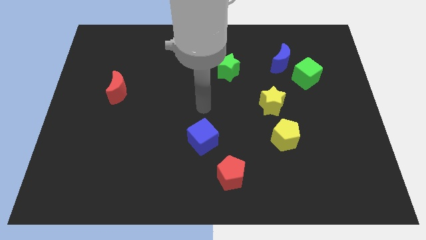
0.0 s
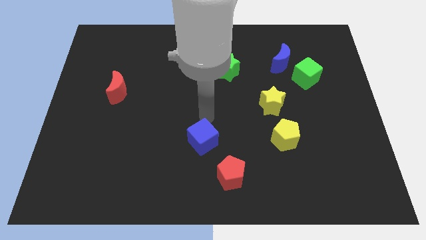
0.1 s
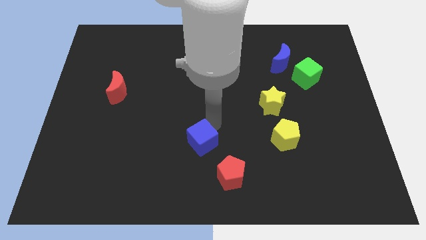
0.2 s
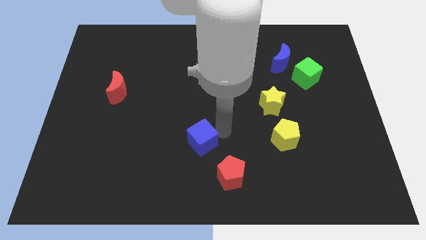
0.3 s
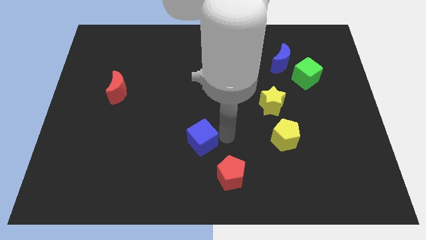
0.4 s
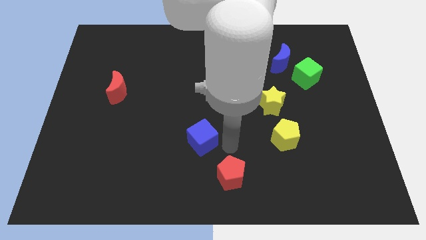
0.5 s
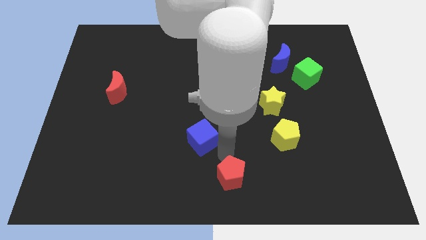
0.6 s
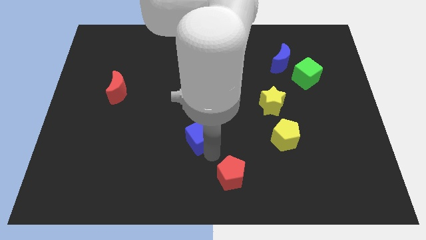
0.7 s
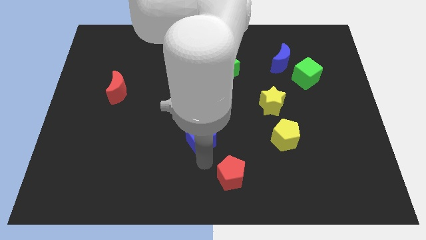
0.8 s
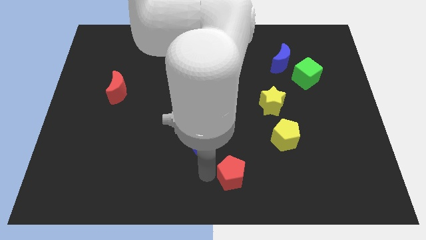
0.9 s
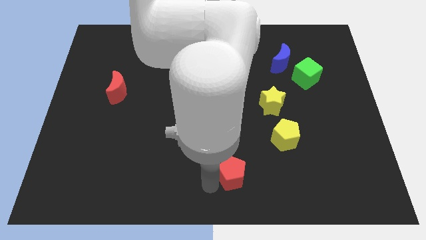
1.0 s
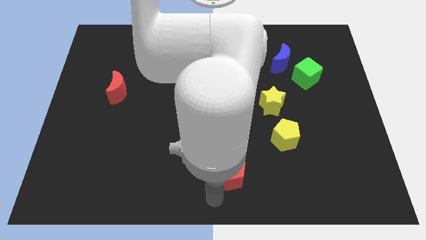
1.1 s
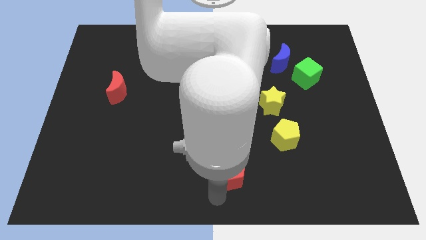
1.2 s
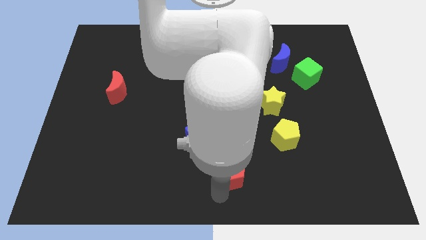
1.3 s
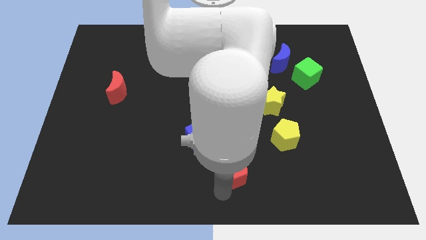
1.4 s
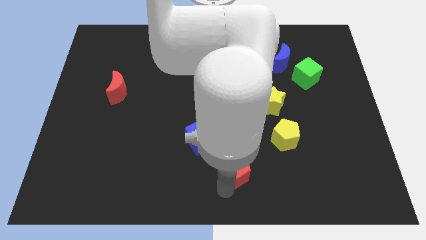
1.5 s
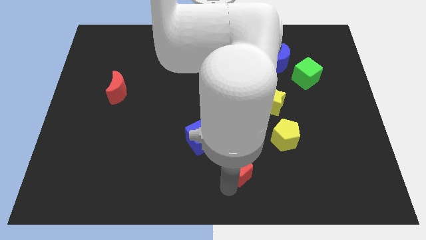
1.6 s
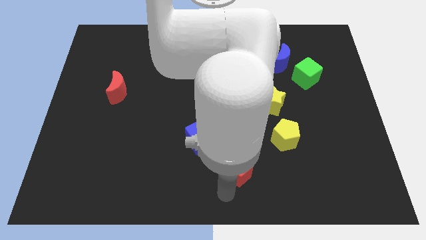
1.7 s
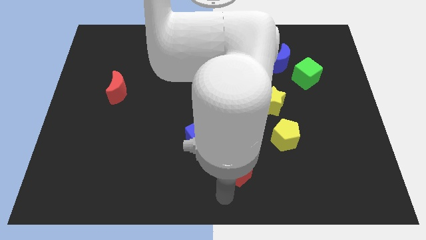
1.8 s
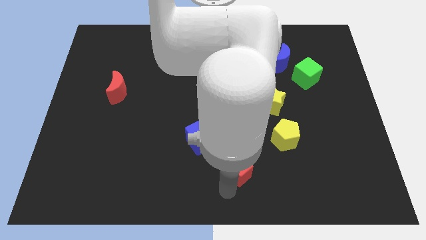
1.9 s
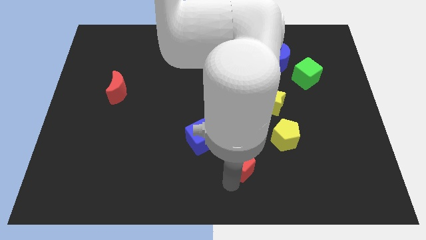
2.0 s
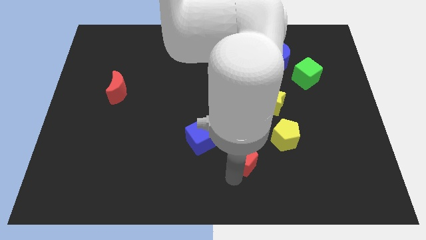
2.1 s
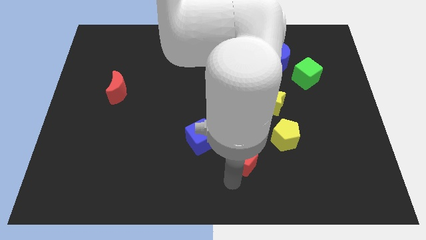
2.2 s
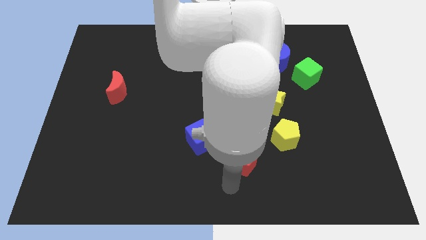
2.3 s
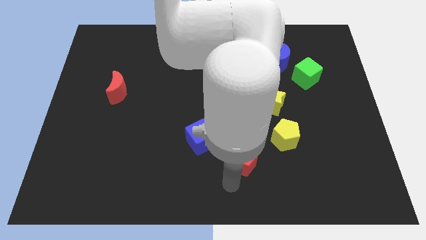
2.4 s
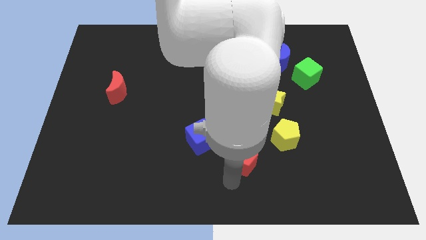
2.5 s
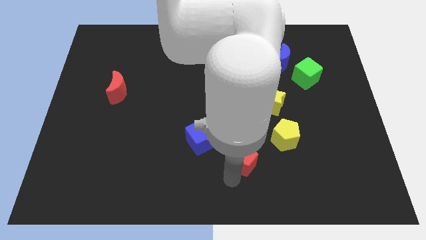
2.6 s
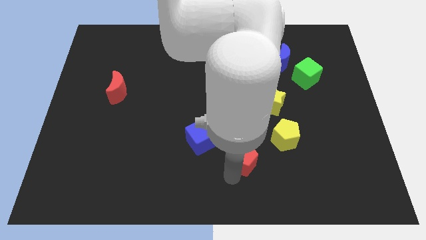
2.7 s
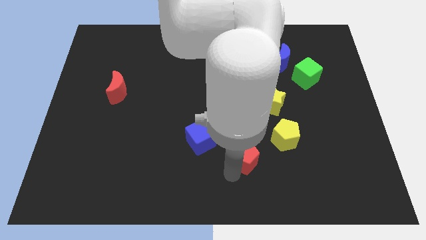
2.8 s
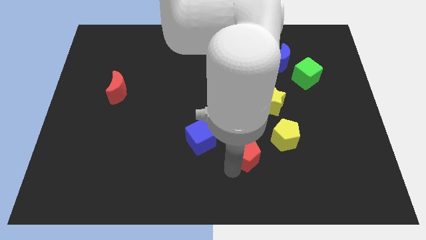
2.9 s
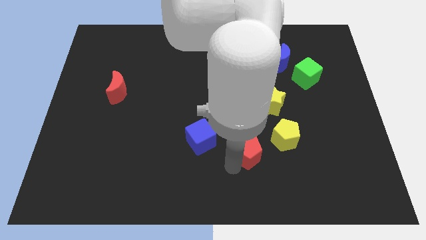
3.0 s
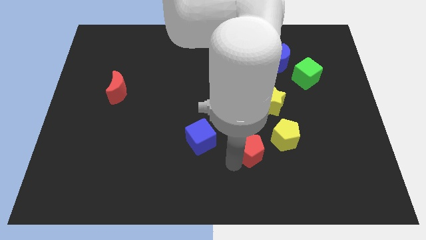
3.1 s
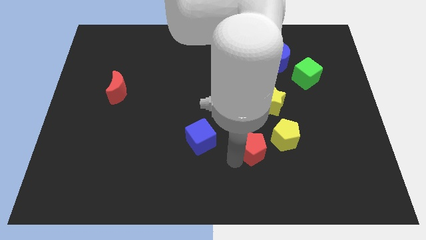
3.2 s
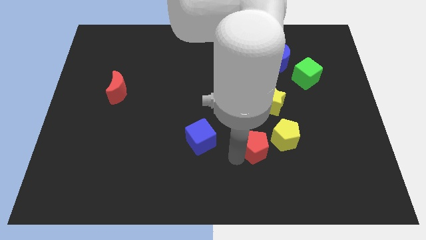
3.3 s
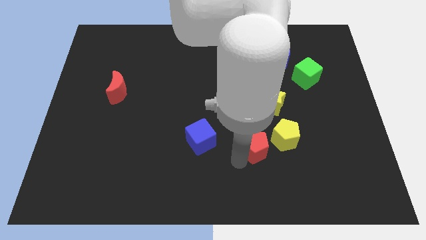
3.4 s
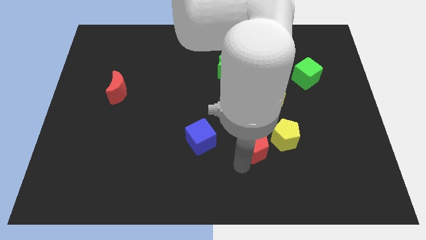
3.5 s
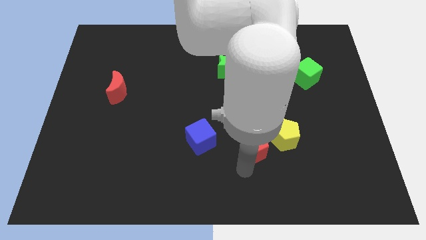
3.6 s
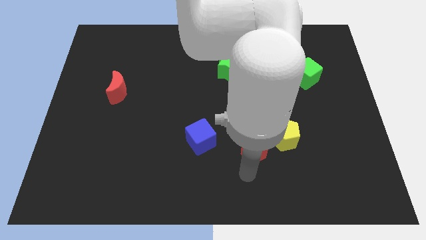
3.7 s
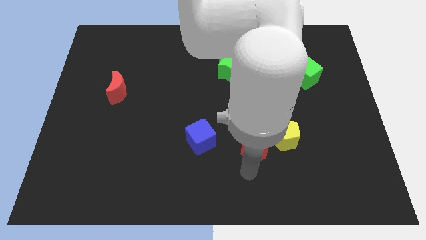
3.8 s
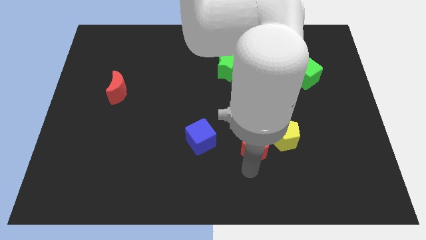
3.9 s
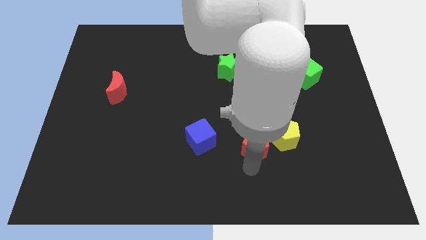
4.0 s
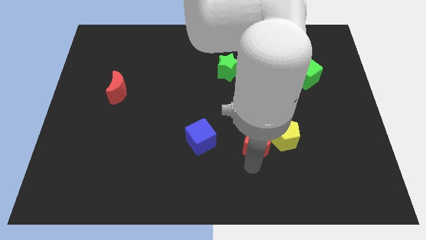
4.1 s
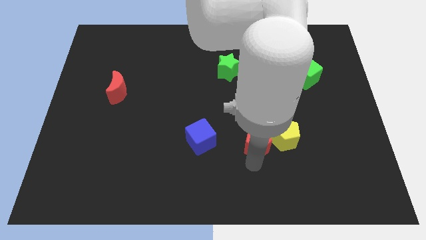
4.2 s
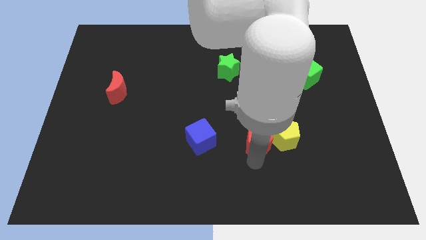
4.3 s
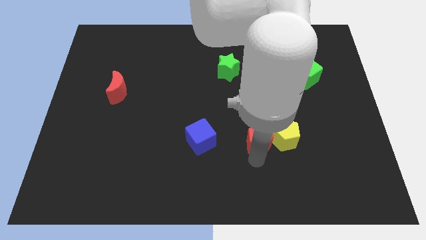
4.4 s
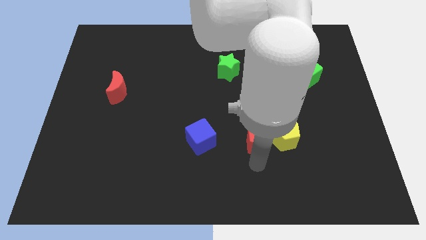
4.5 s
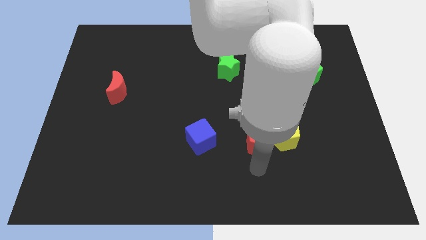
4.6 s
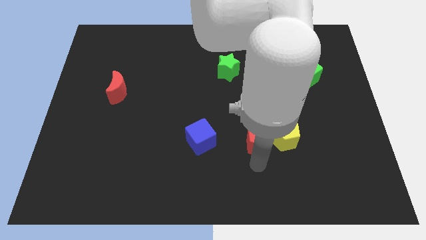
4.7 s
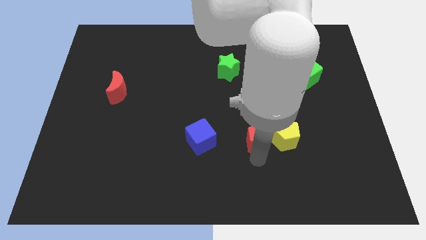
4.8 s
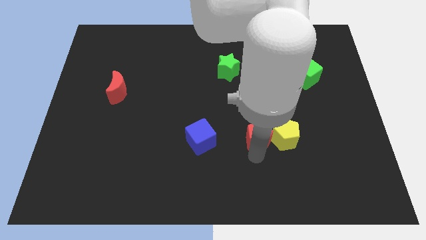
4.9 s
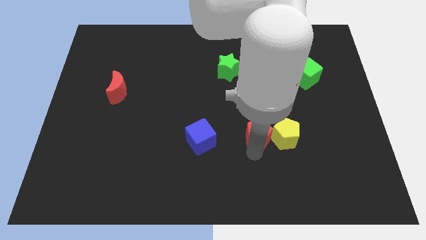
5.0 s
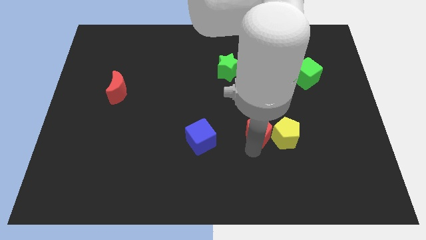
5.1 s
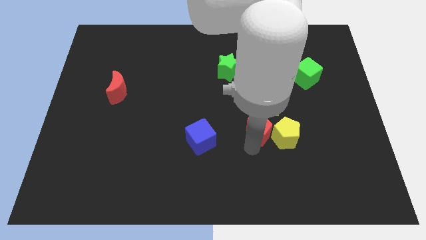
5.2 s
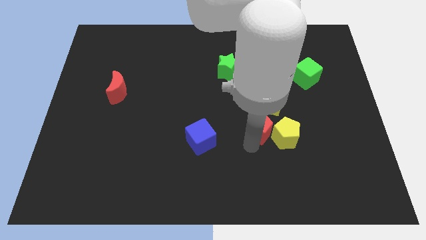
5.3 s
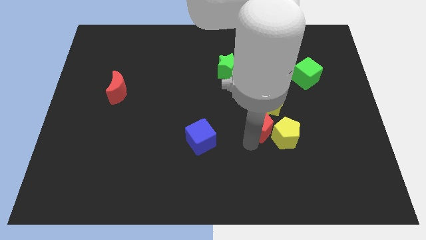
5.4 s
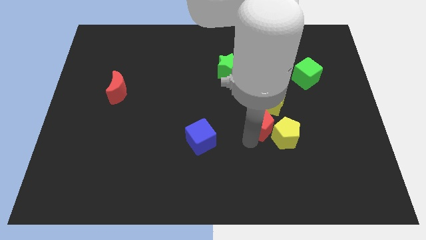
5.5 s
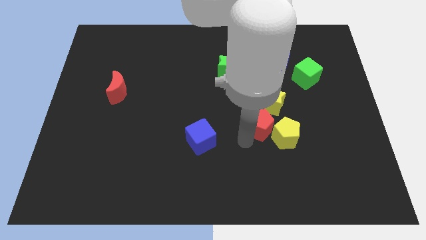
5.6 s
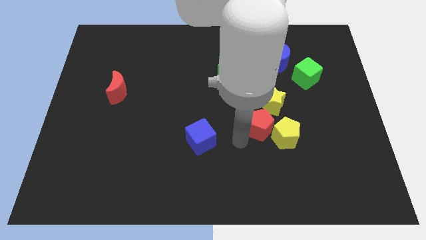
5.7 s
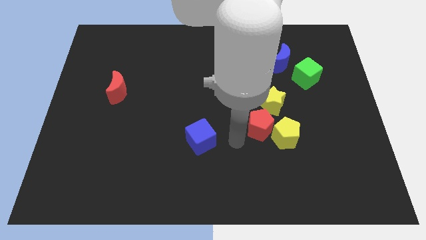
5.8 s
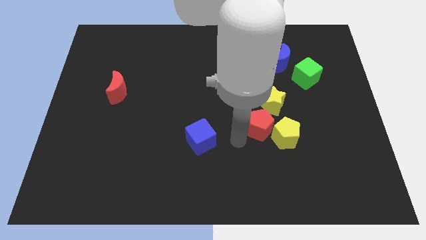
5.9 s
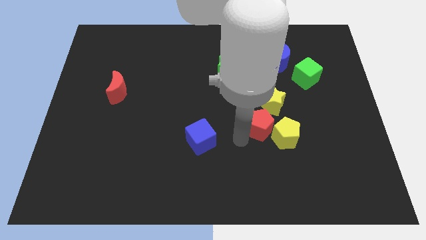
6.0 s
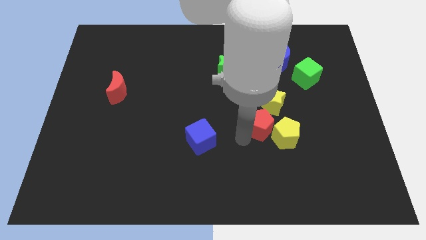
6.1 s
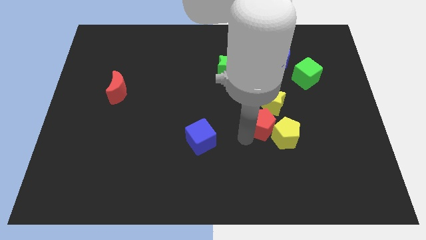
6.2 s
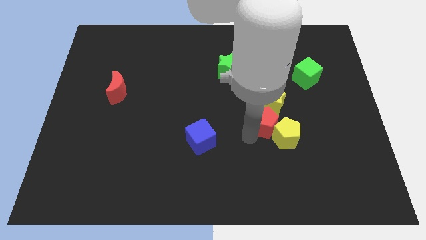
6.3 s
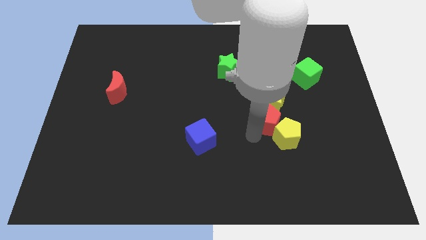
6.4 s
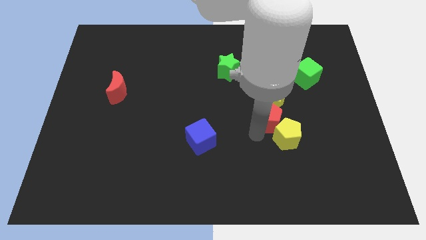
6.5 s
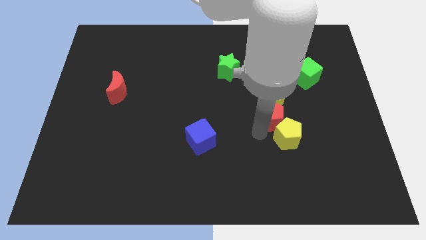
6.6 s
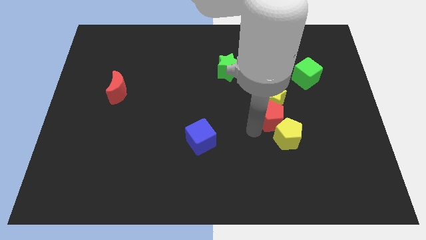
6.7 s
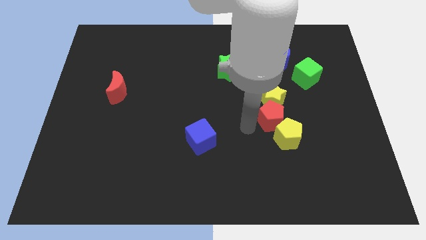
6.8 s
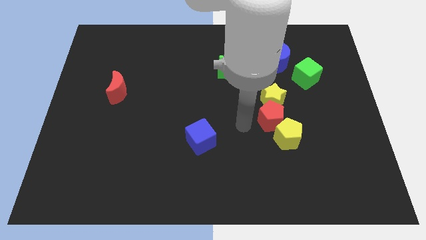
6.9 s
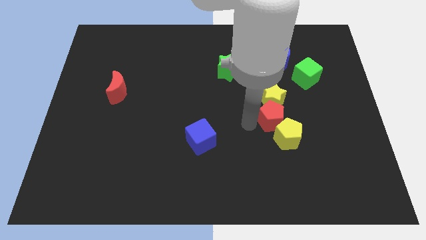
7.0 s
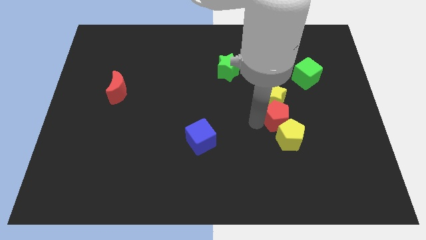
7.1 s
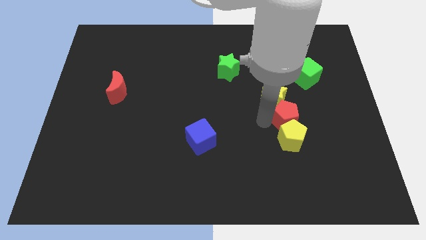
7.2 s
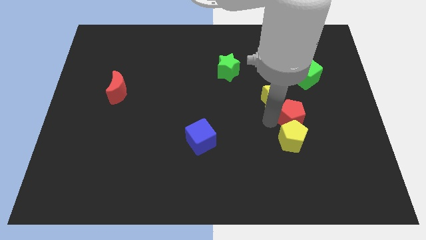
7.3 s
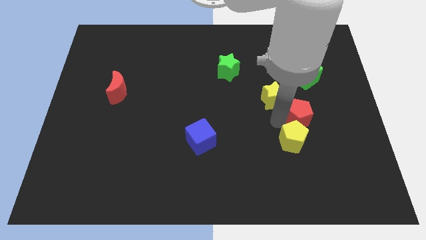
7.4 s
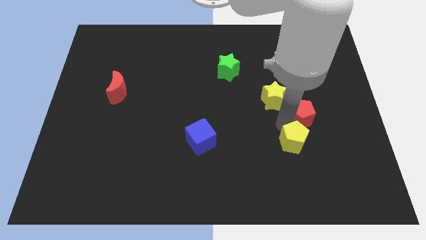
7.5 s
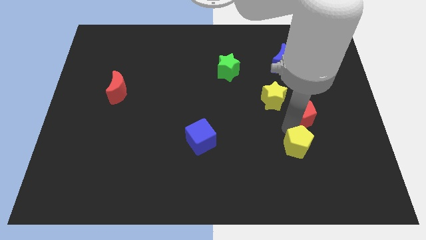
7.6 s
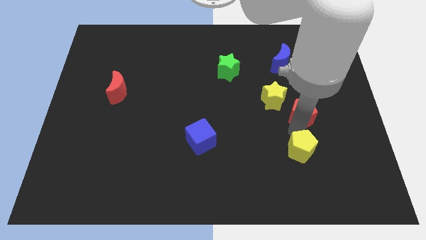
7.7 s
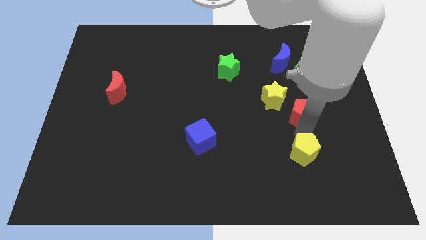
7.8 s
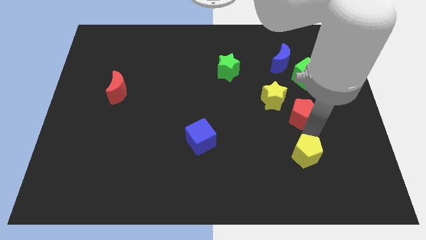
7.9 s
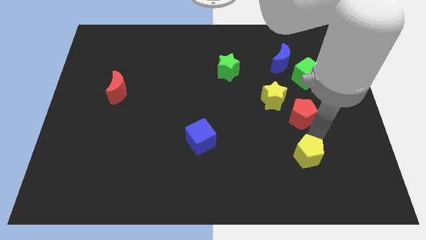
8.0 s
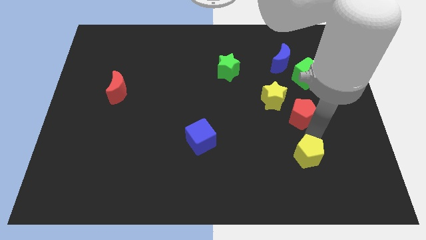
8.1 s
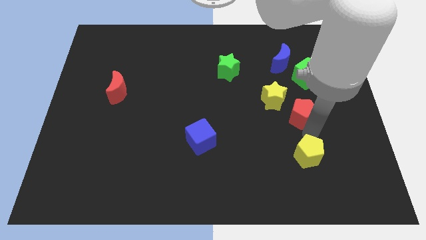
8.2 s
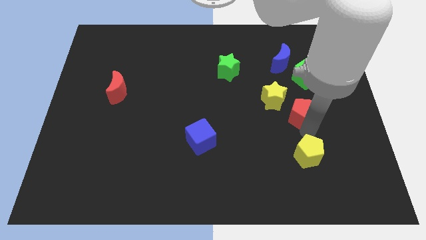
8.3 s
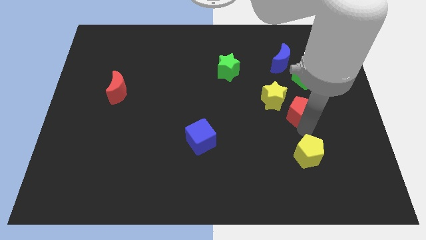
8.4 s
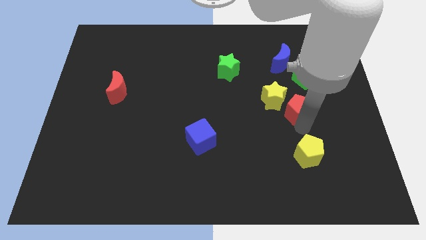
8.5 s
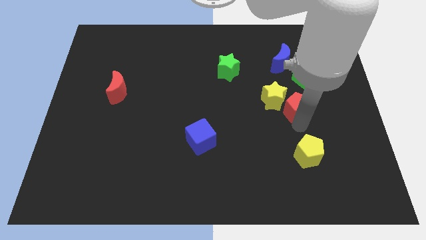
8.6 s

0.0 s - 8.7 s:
slide the red pentagon below the blue moon
